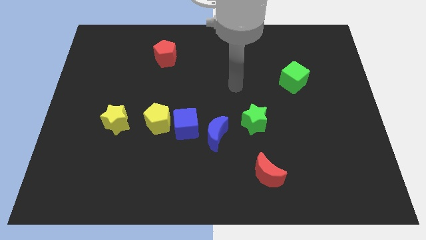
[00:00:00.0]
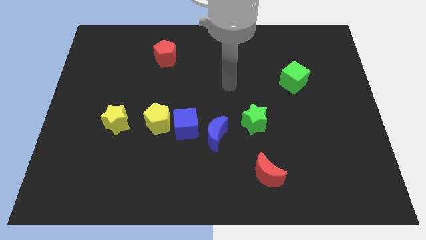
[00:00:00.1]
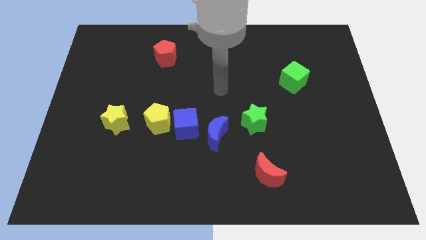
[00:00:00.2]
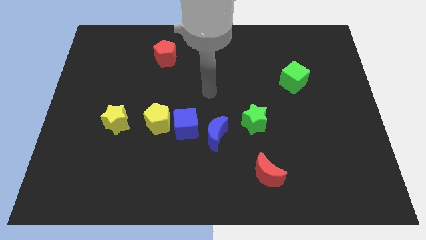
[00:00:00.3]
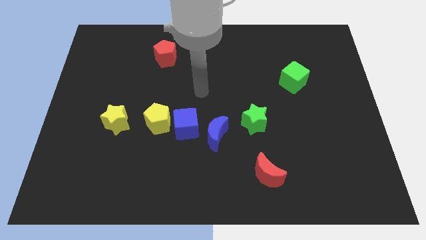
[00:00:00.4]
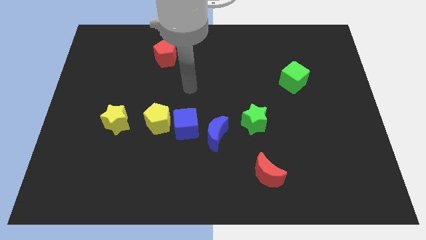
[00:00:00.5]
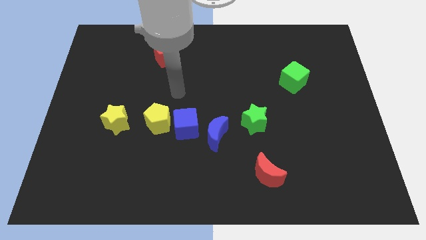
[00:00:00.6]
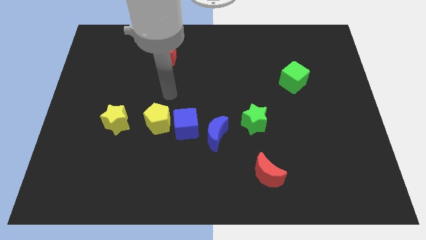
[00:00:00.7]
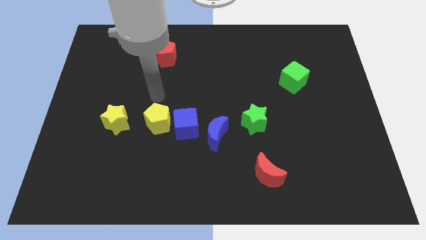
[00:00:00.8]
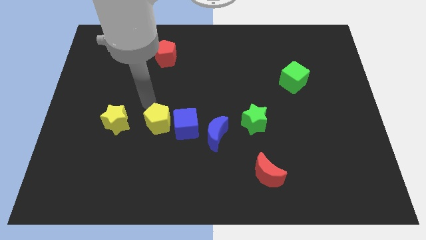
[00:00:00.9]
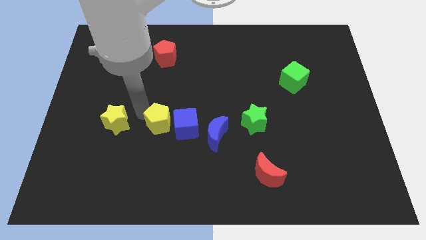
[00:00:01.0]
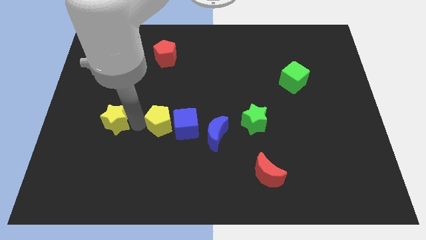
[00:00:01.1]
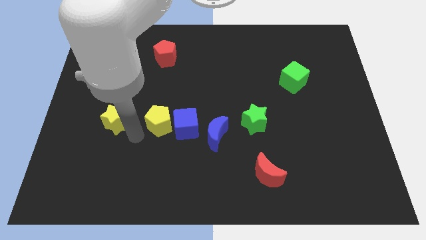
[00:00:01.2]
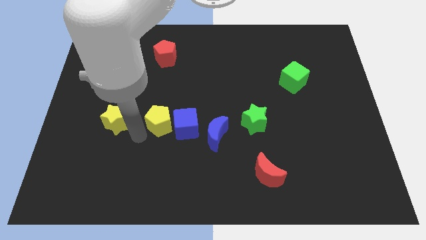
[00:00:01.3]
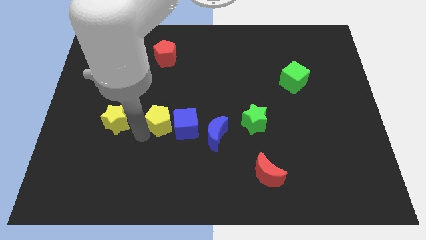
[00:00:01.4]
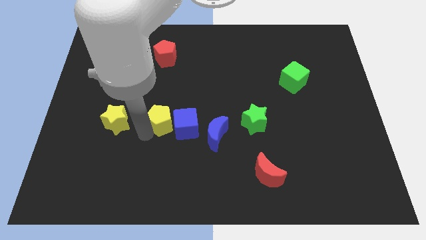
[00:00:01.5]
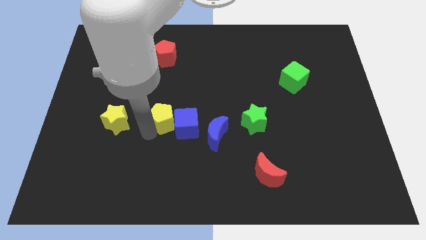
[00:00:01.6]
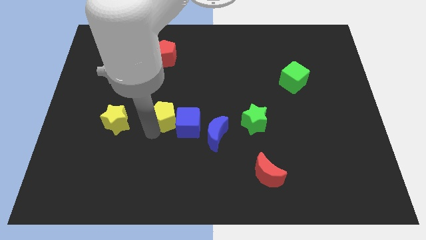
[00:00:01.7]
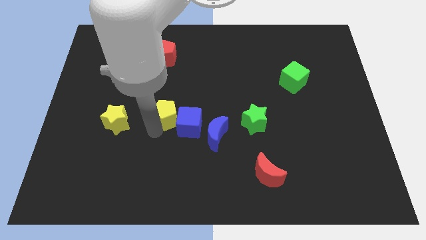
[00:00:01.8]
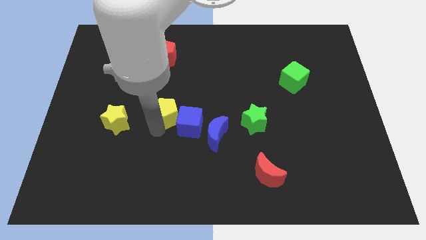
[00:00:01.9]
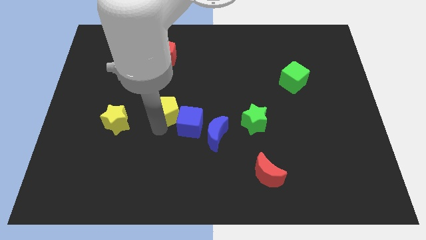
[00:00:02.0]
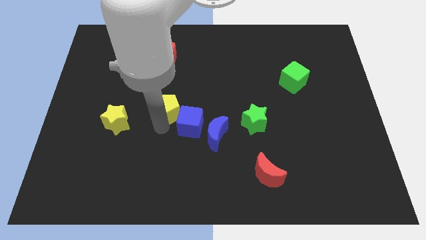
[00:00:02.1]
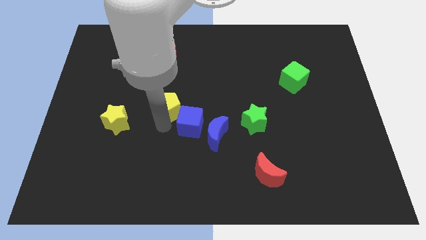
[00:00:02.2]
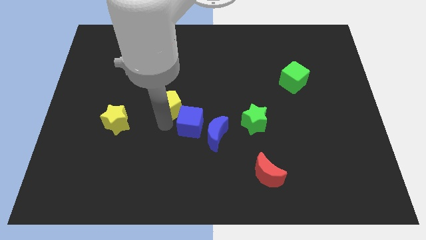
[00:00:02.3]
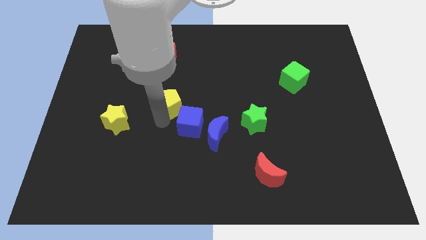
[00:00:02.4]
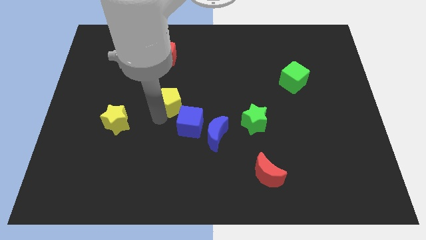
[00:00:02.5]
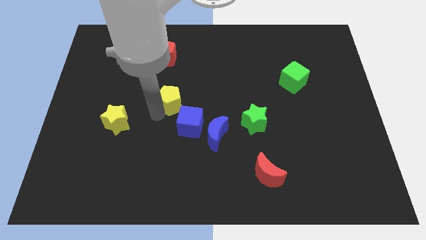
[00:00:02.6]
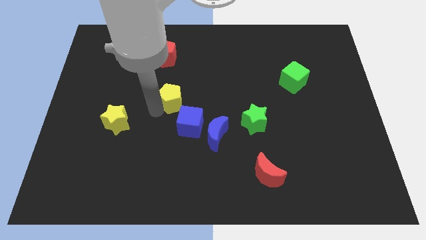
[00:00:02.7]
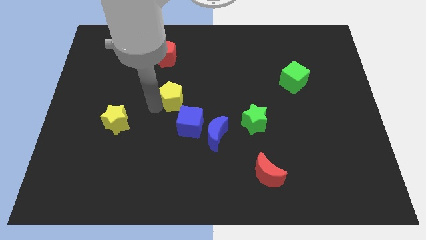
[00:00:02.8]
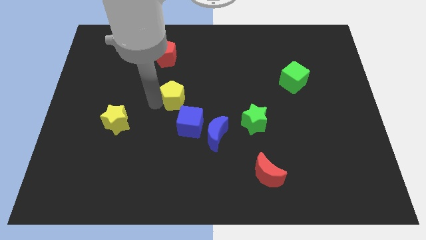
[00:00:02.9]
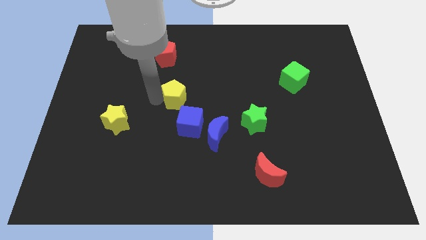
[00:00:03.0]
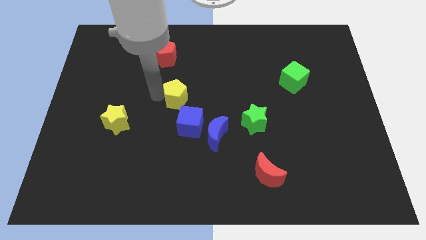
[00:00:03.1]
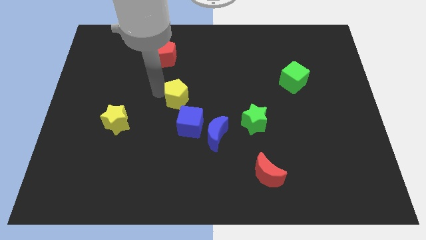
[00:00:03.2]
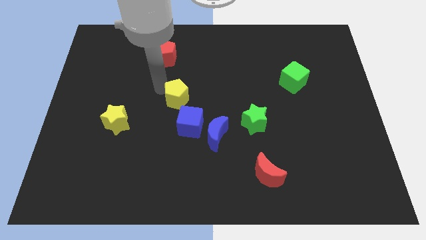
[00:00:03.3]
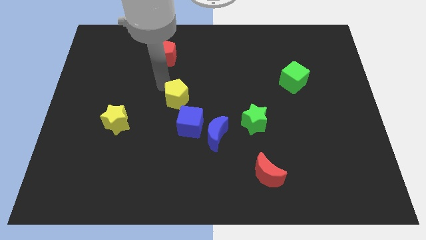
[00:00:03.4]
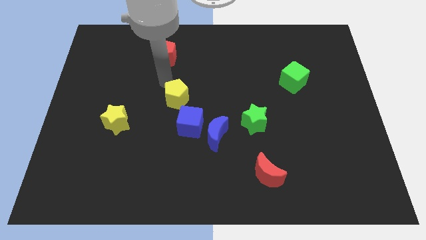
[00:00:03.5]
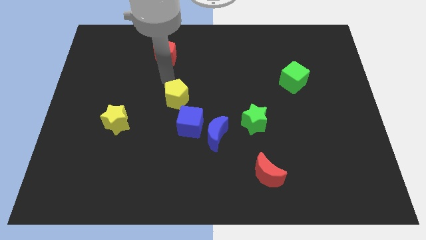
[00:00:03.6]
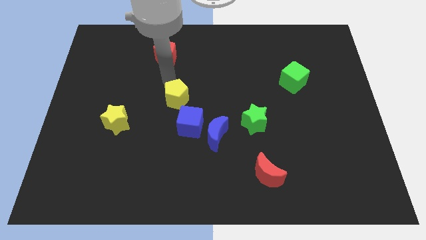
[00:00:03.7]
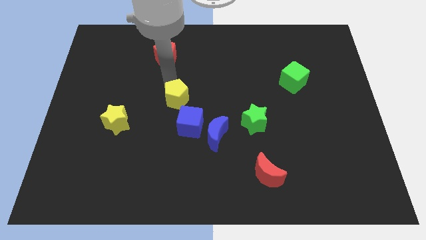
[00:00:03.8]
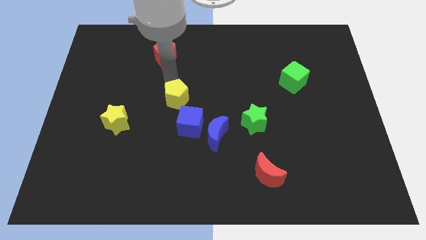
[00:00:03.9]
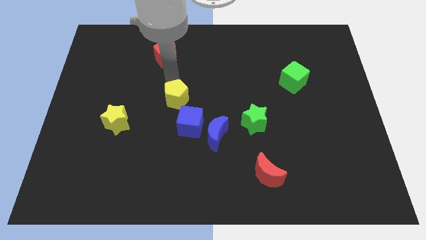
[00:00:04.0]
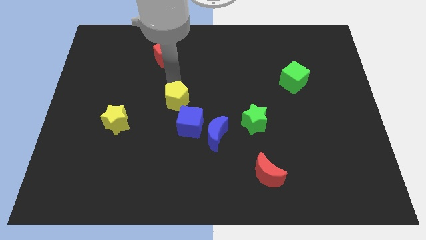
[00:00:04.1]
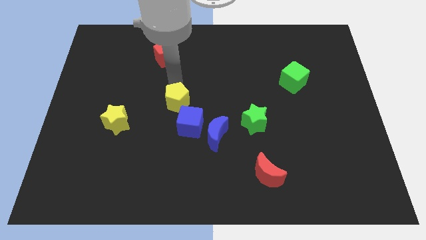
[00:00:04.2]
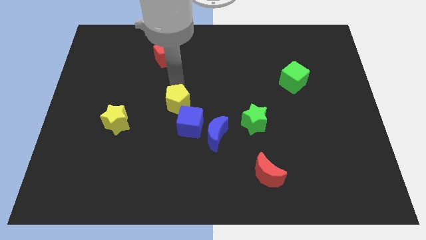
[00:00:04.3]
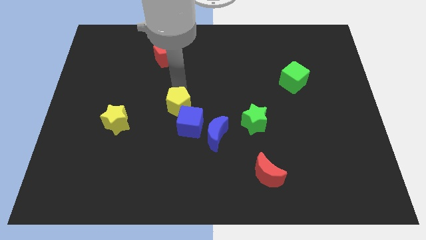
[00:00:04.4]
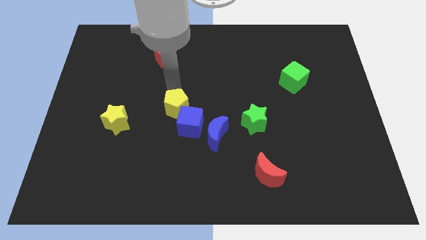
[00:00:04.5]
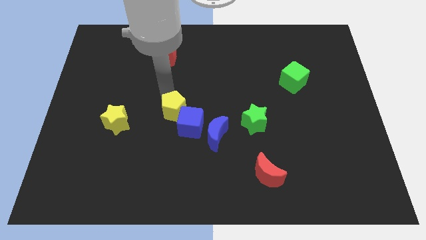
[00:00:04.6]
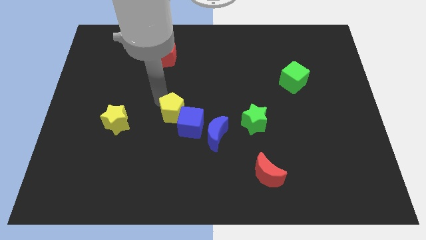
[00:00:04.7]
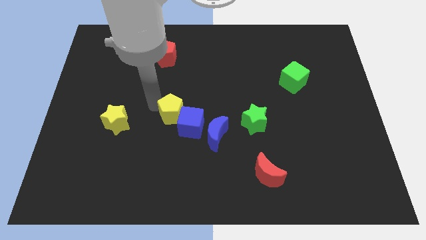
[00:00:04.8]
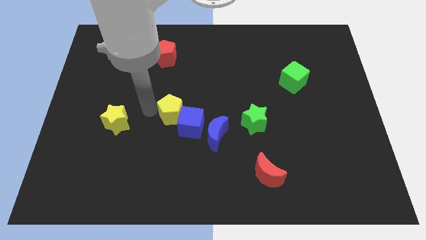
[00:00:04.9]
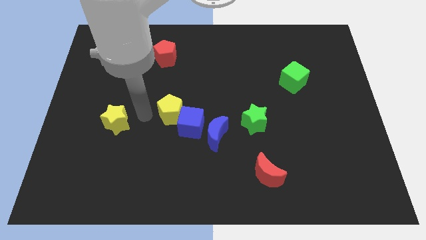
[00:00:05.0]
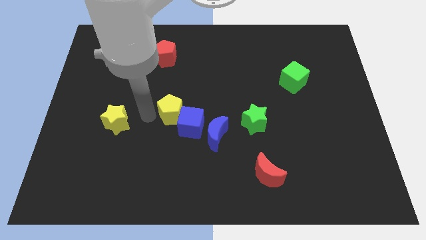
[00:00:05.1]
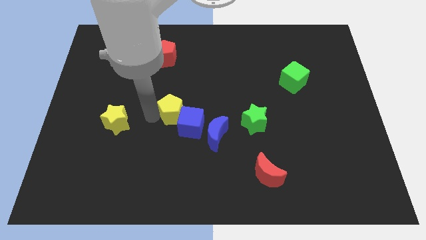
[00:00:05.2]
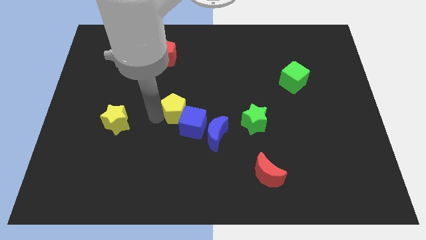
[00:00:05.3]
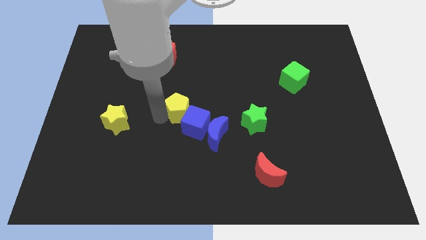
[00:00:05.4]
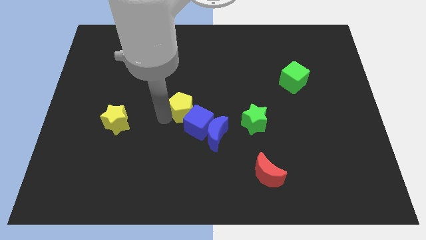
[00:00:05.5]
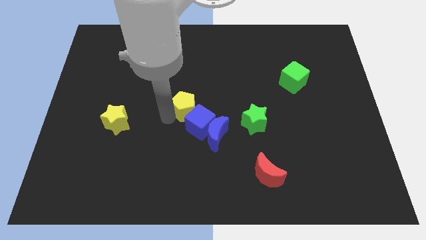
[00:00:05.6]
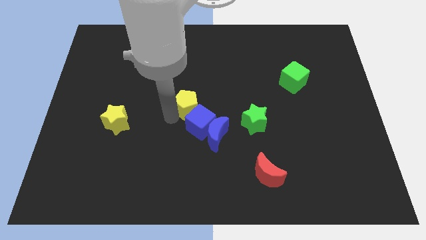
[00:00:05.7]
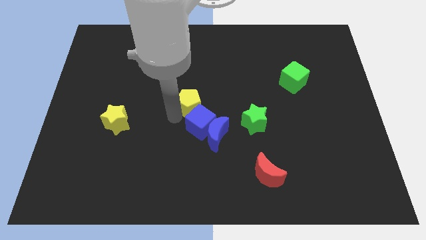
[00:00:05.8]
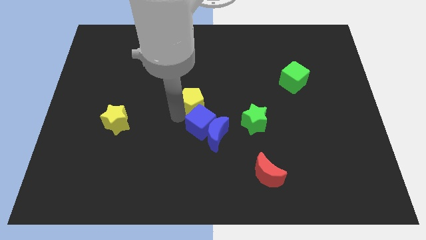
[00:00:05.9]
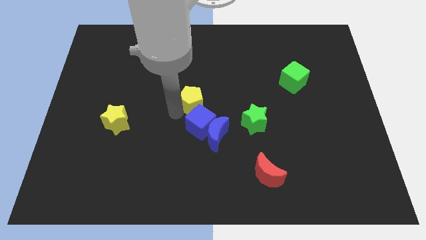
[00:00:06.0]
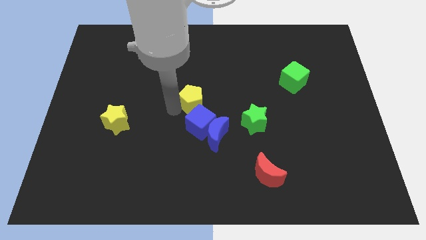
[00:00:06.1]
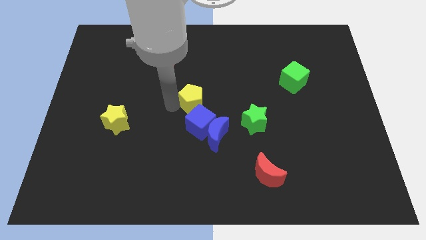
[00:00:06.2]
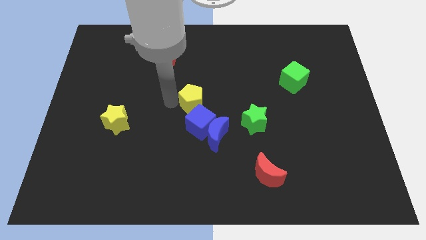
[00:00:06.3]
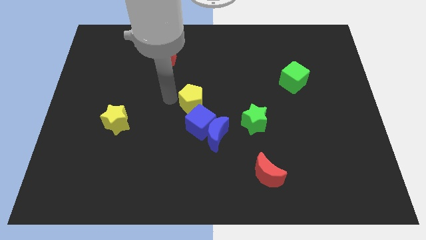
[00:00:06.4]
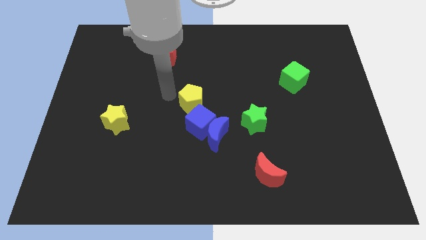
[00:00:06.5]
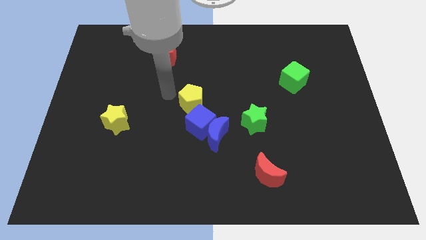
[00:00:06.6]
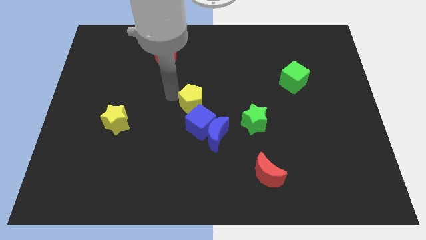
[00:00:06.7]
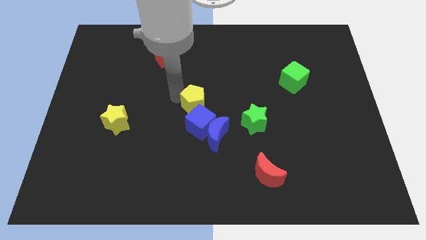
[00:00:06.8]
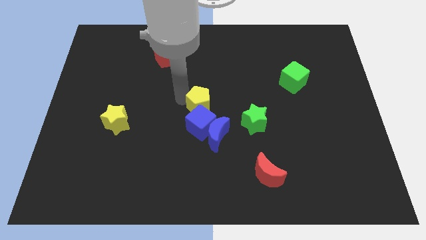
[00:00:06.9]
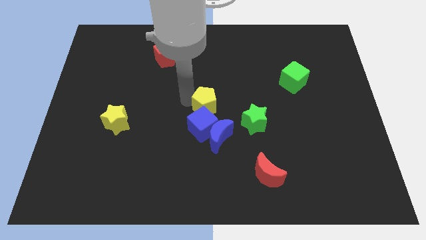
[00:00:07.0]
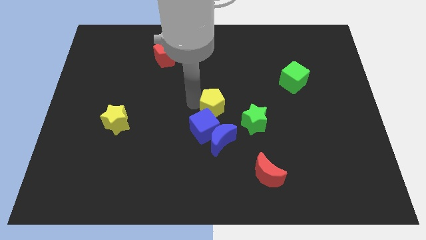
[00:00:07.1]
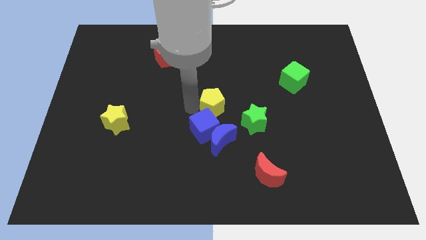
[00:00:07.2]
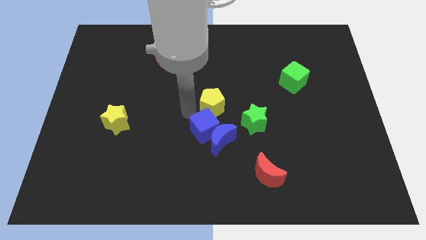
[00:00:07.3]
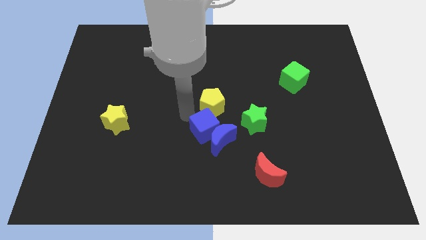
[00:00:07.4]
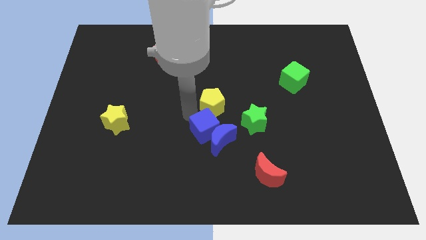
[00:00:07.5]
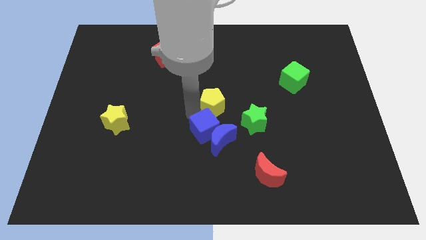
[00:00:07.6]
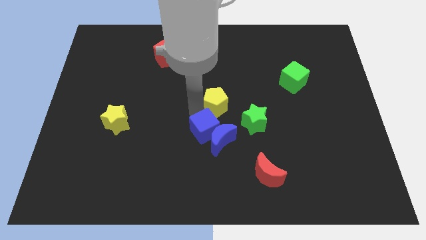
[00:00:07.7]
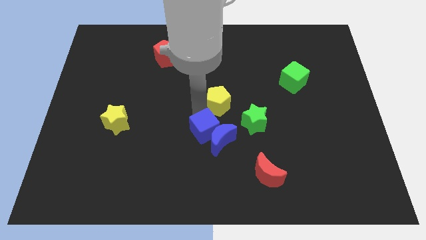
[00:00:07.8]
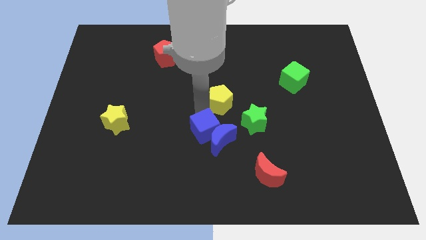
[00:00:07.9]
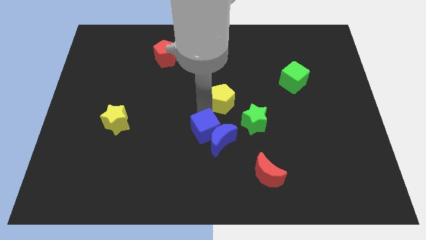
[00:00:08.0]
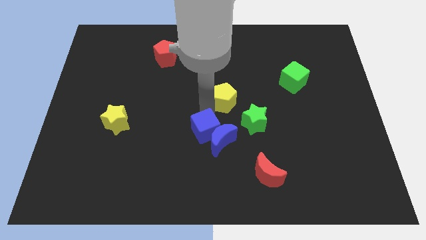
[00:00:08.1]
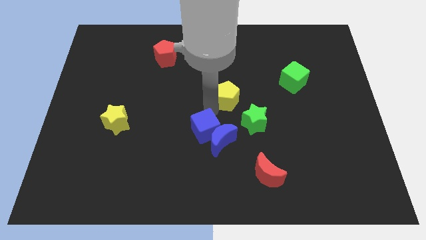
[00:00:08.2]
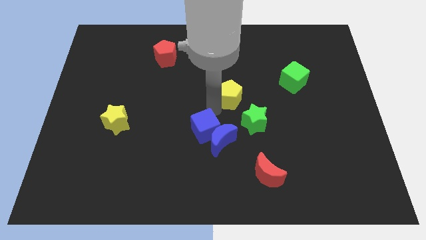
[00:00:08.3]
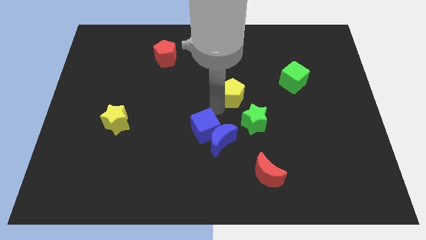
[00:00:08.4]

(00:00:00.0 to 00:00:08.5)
put the yellow pentagon above the green star
